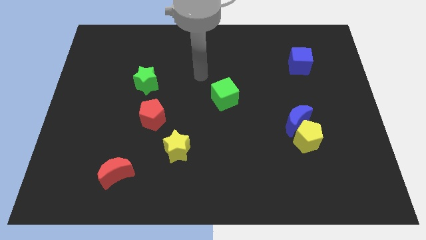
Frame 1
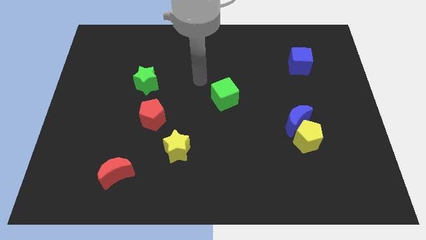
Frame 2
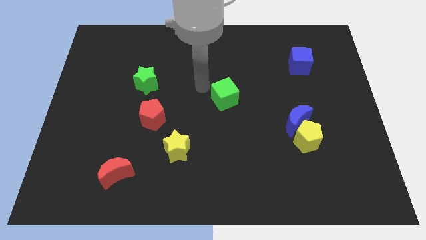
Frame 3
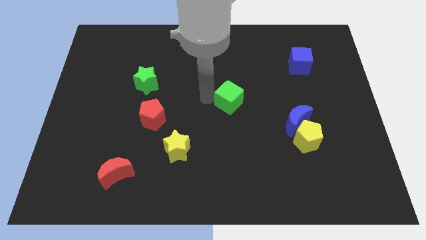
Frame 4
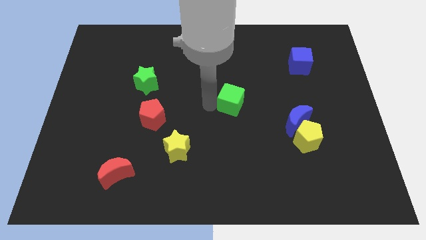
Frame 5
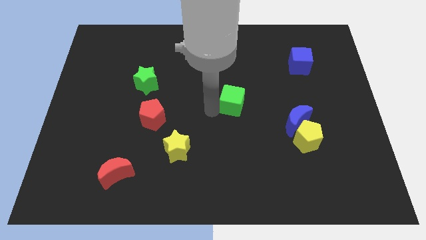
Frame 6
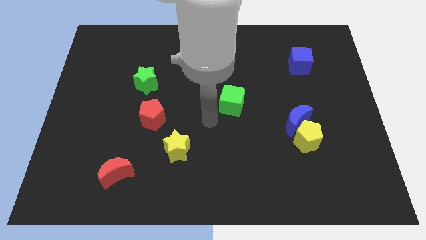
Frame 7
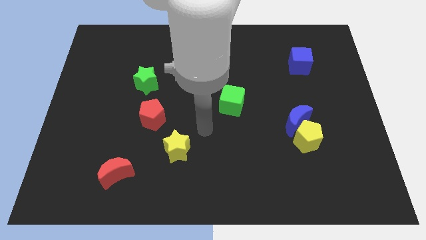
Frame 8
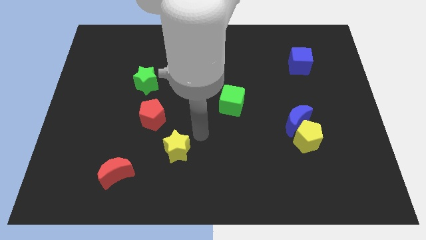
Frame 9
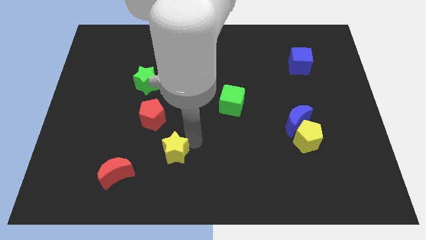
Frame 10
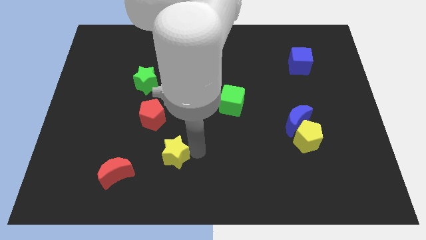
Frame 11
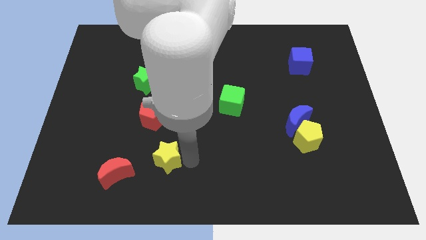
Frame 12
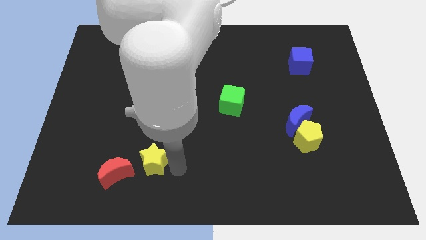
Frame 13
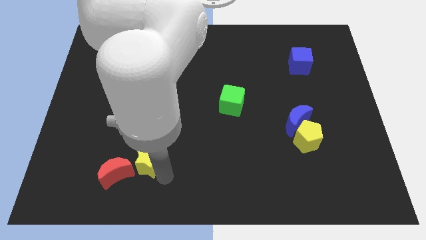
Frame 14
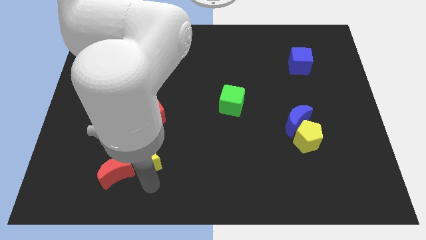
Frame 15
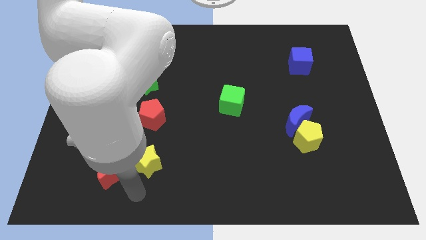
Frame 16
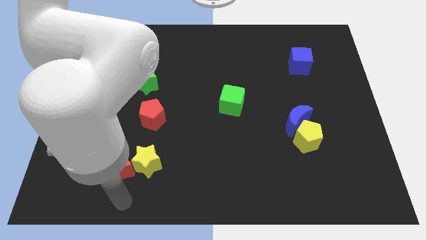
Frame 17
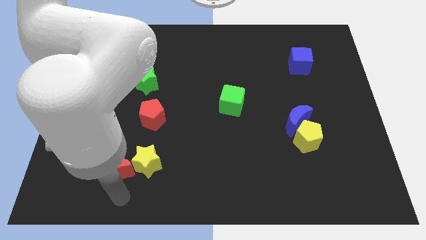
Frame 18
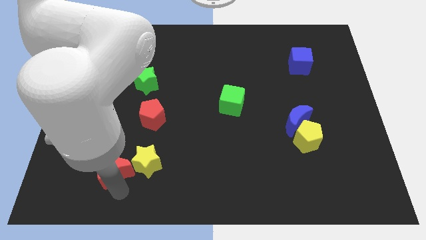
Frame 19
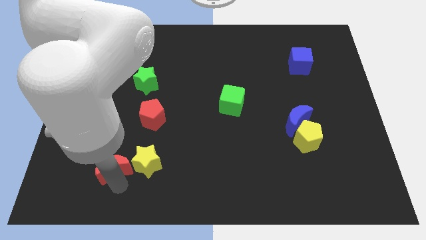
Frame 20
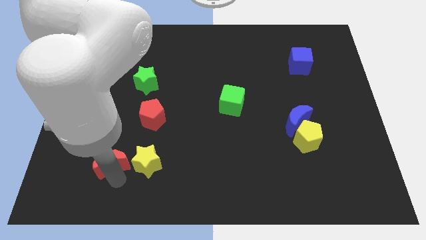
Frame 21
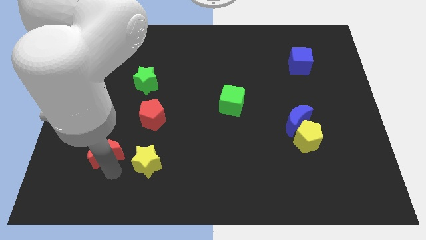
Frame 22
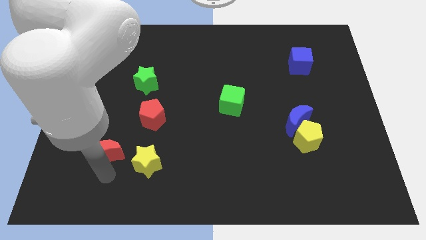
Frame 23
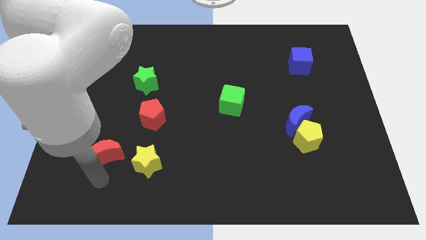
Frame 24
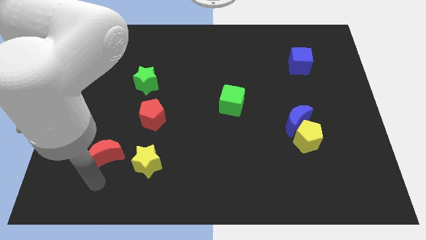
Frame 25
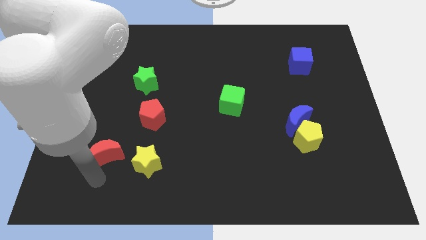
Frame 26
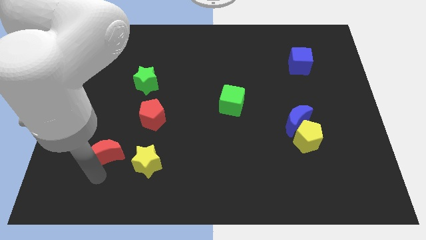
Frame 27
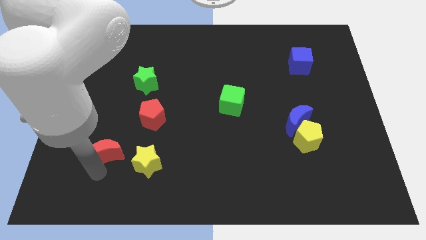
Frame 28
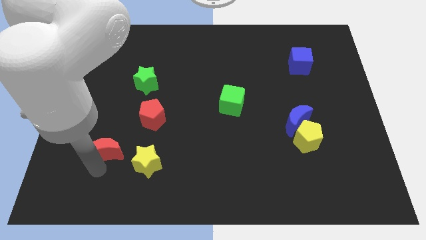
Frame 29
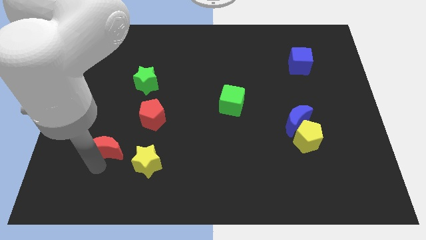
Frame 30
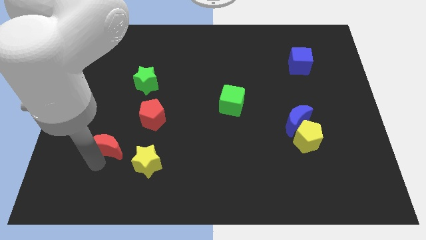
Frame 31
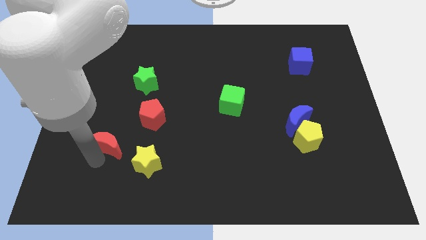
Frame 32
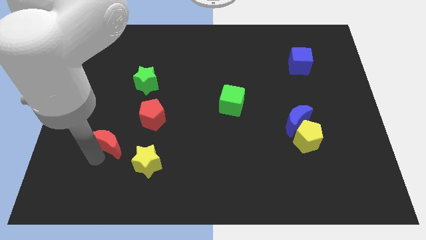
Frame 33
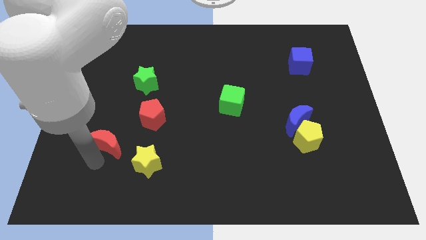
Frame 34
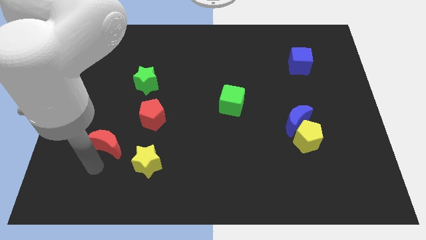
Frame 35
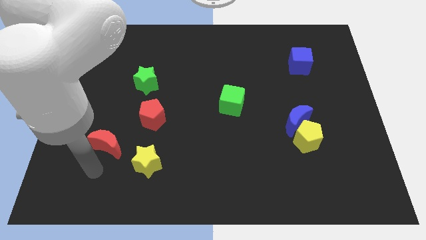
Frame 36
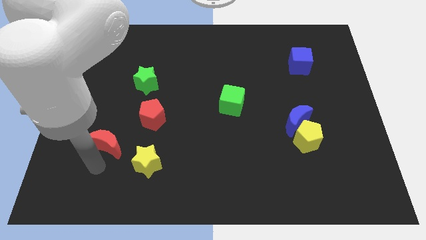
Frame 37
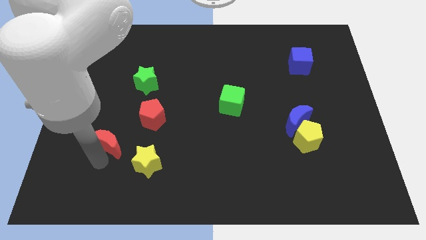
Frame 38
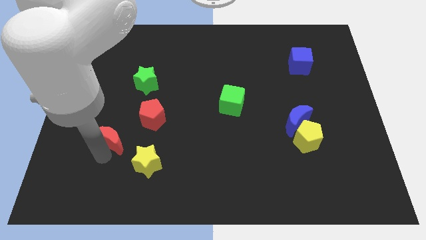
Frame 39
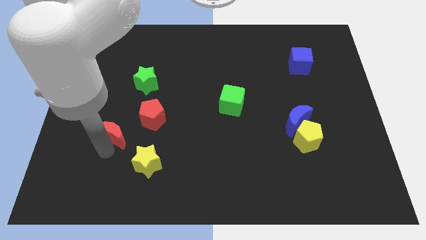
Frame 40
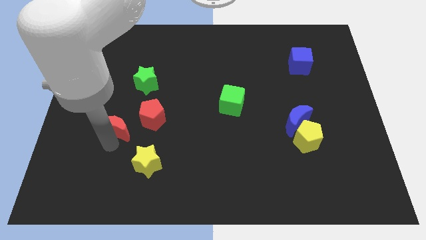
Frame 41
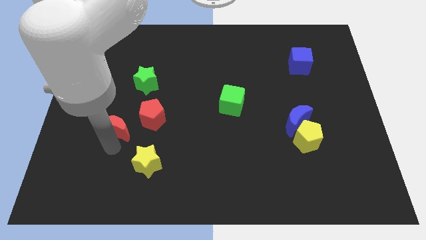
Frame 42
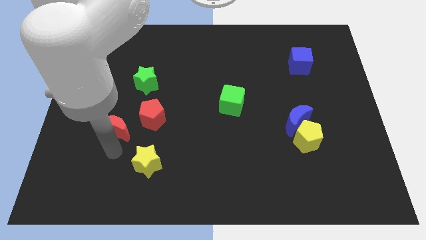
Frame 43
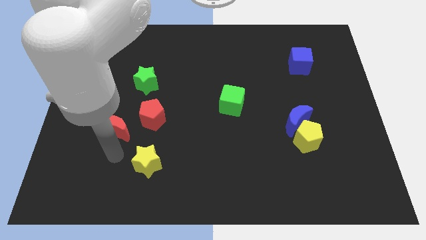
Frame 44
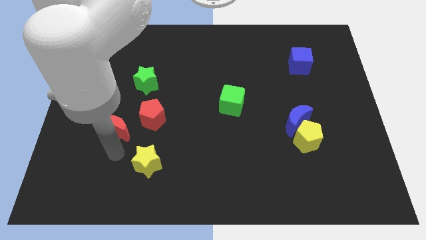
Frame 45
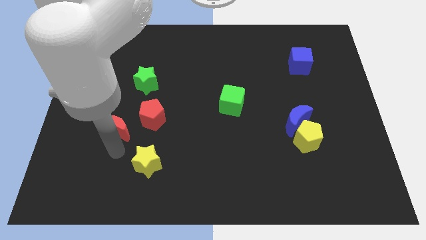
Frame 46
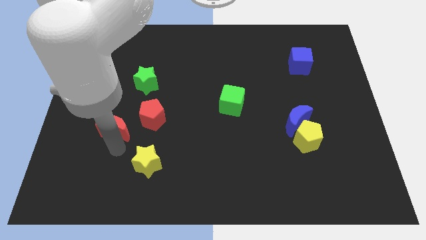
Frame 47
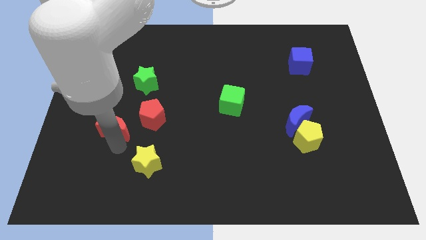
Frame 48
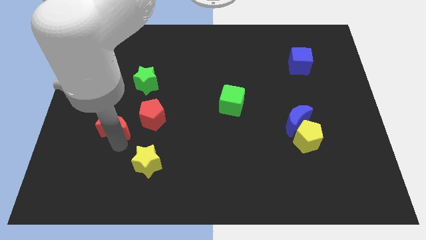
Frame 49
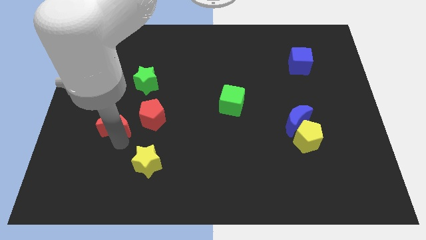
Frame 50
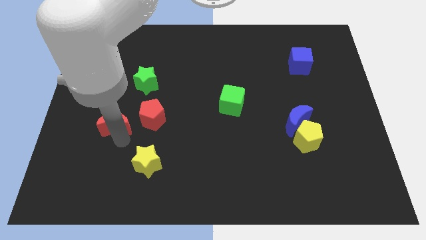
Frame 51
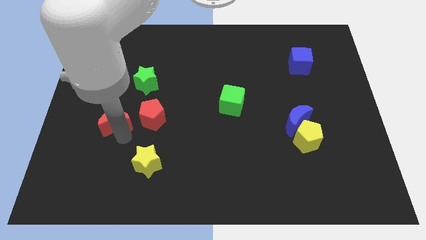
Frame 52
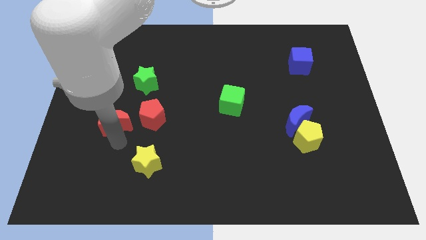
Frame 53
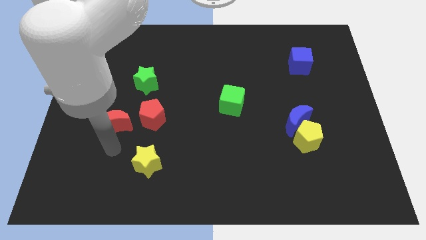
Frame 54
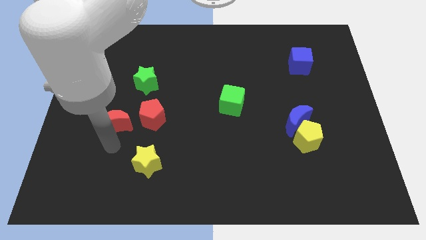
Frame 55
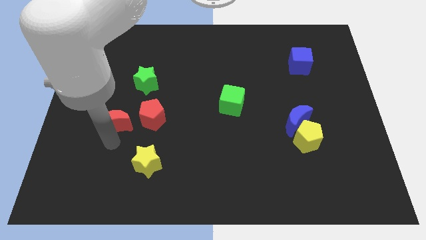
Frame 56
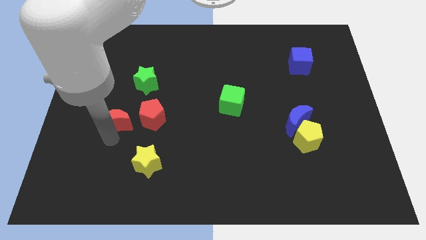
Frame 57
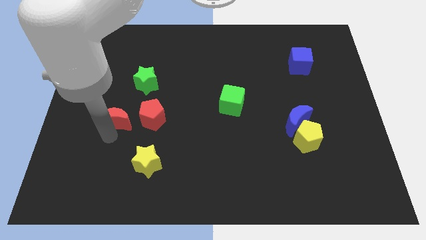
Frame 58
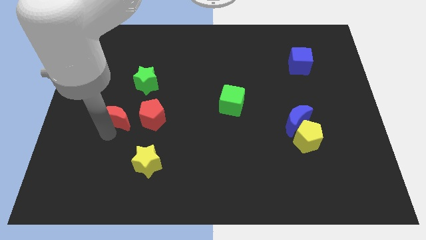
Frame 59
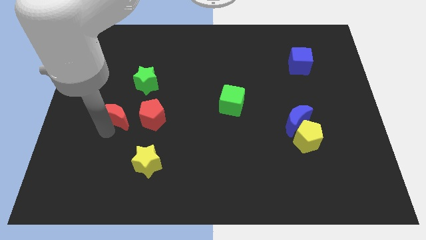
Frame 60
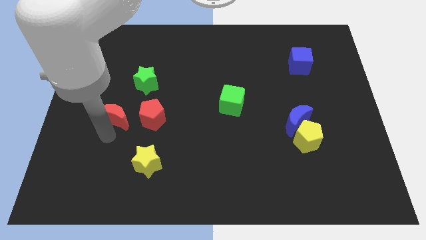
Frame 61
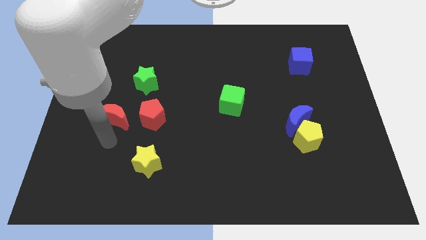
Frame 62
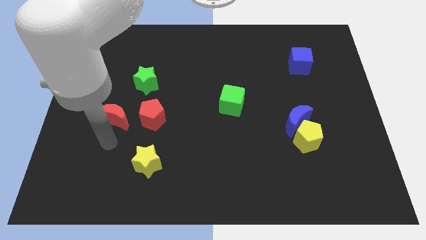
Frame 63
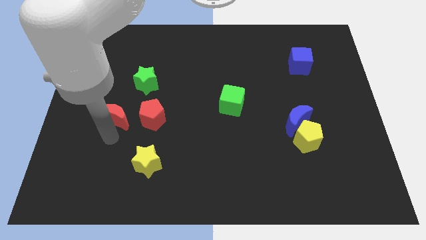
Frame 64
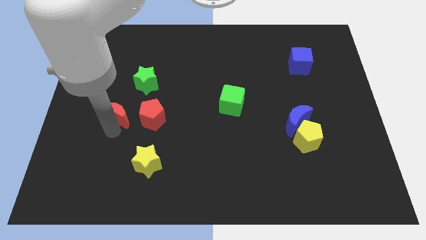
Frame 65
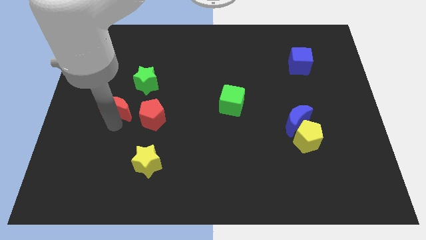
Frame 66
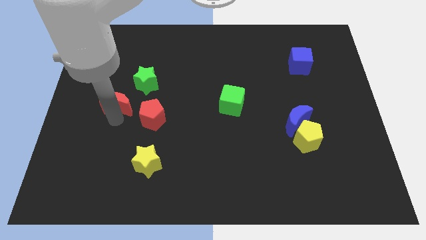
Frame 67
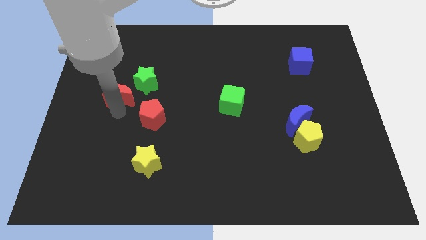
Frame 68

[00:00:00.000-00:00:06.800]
move the red moon upwards

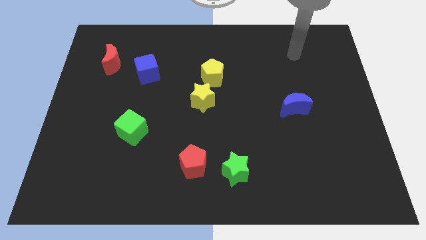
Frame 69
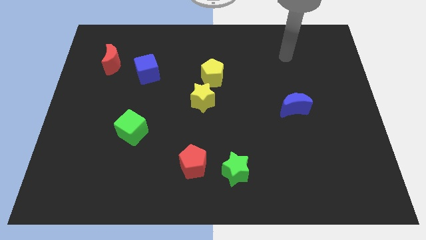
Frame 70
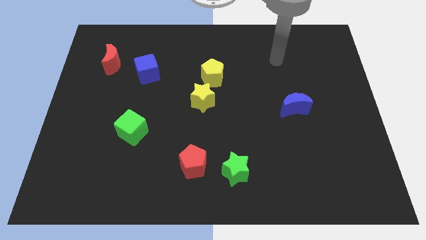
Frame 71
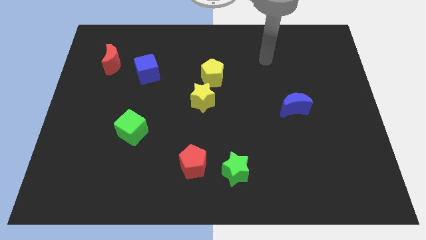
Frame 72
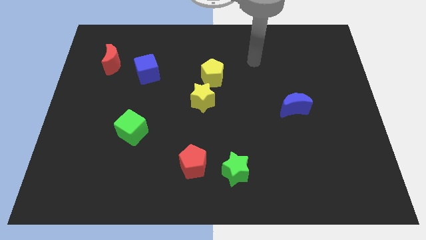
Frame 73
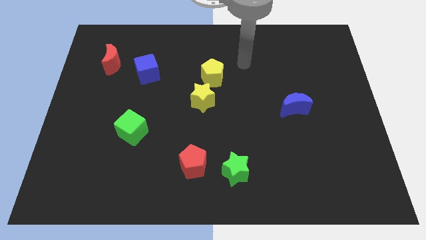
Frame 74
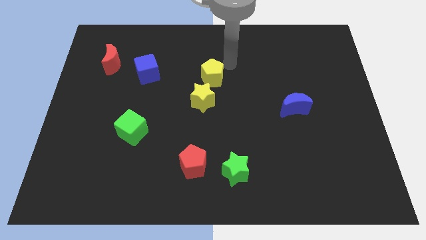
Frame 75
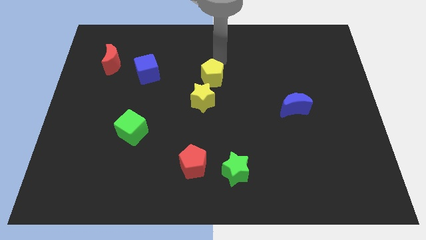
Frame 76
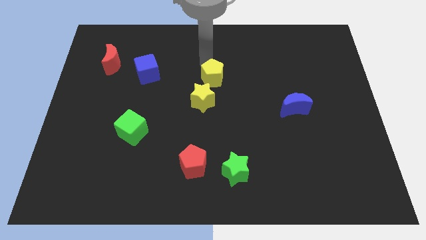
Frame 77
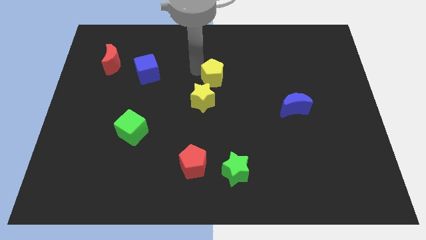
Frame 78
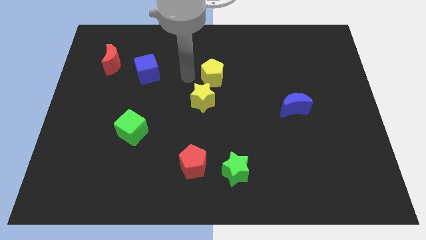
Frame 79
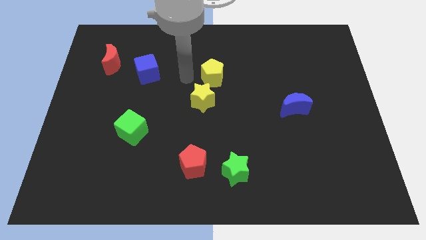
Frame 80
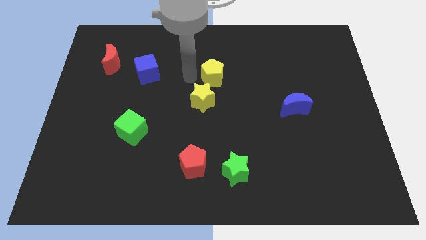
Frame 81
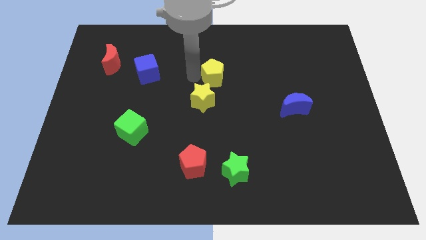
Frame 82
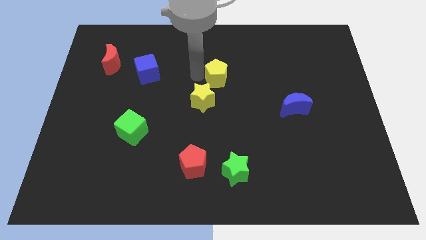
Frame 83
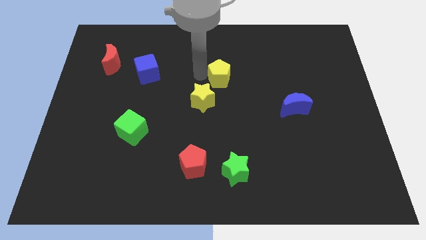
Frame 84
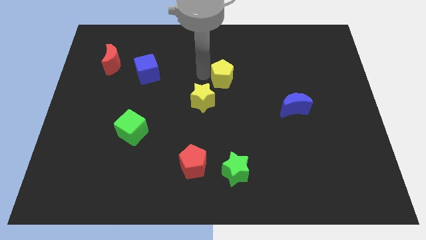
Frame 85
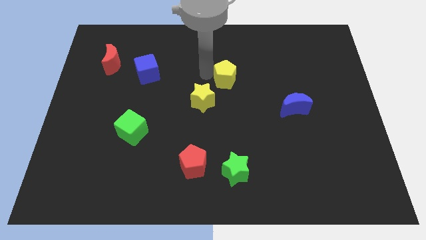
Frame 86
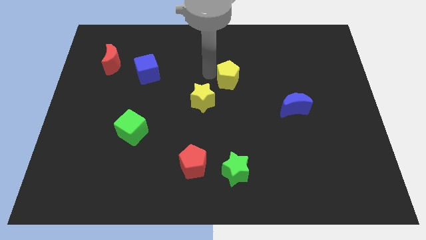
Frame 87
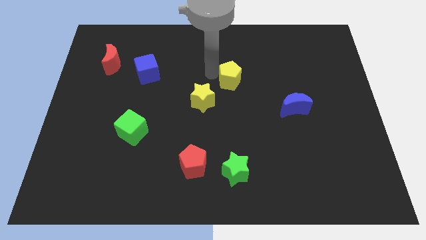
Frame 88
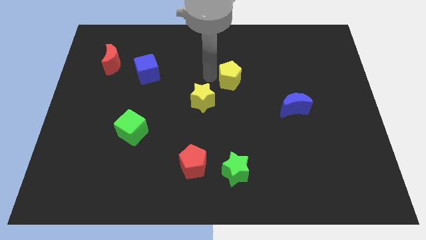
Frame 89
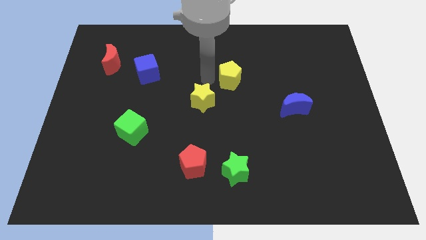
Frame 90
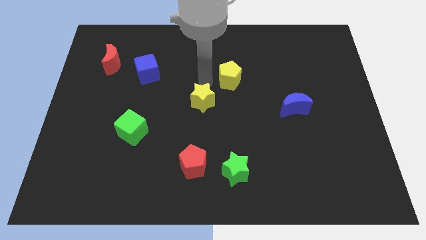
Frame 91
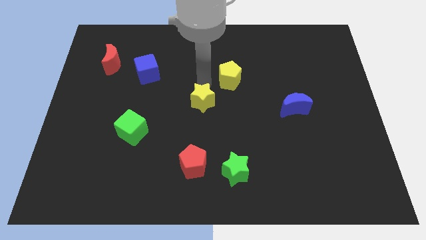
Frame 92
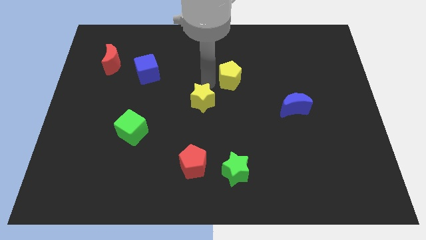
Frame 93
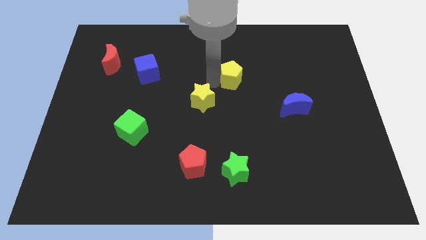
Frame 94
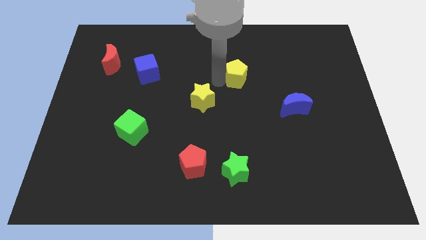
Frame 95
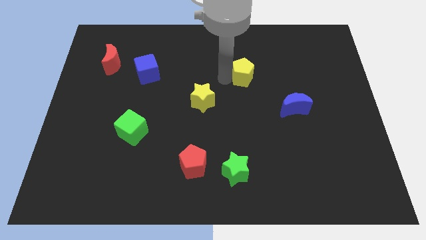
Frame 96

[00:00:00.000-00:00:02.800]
slide the yellow pentagon to the right slightly
